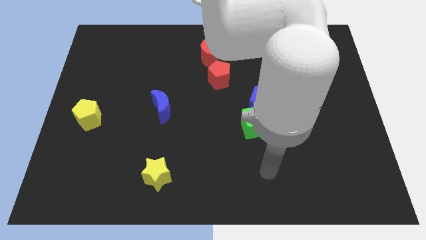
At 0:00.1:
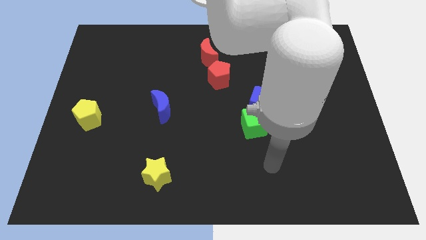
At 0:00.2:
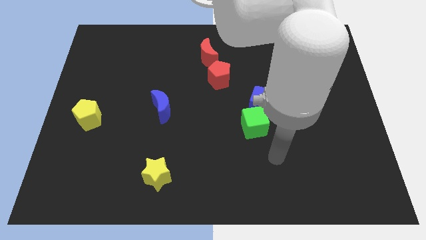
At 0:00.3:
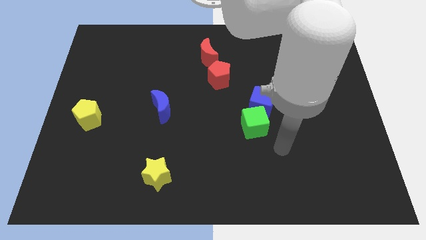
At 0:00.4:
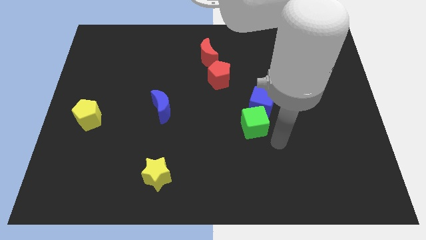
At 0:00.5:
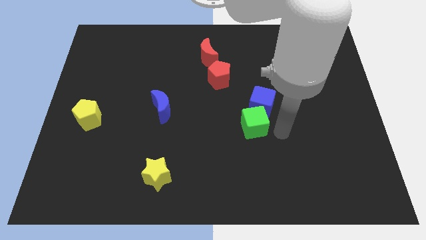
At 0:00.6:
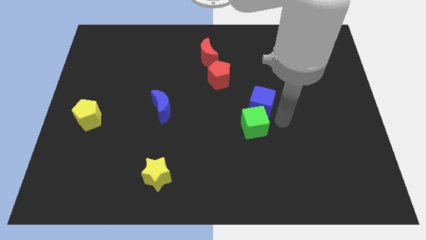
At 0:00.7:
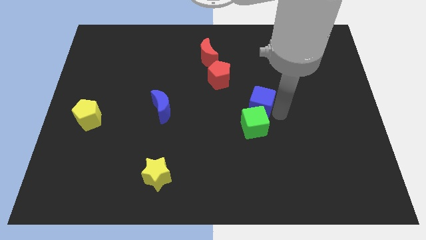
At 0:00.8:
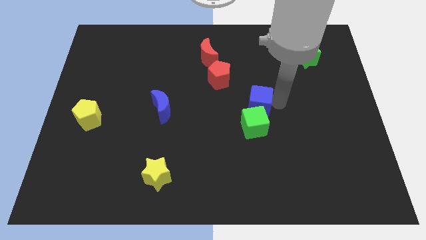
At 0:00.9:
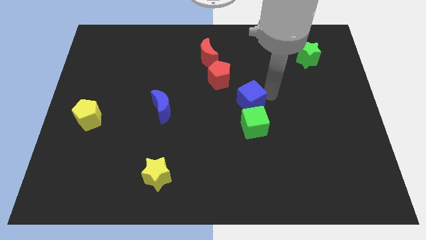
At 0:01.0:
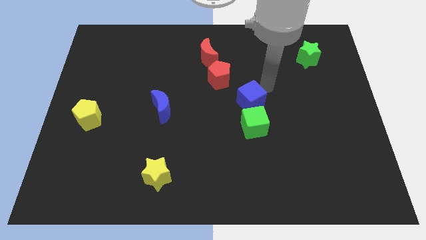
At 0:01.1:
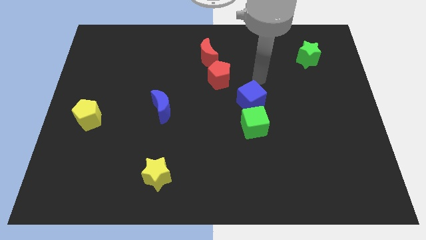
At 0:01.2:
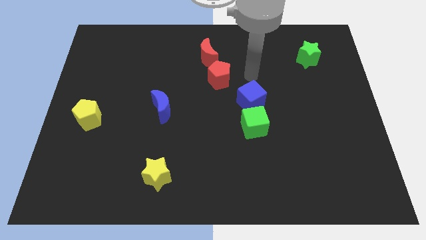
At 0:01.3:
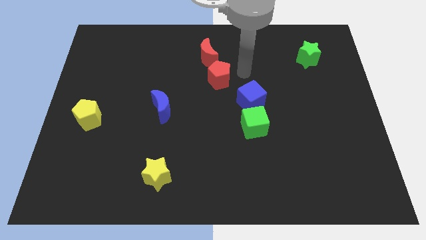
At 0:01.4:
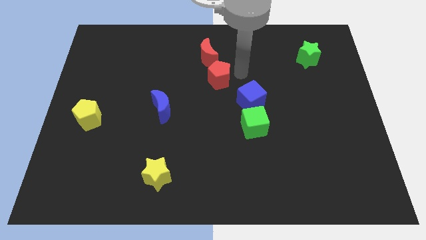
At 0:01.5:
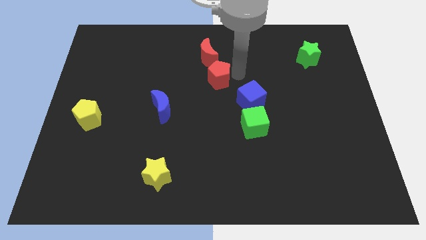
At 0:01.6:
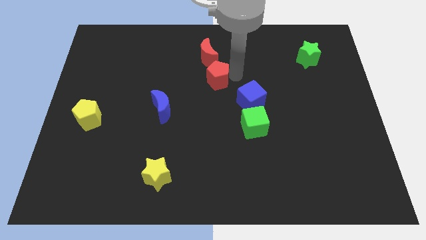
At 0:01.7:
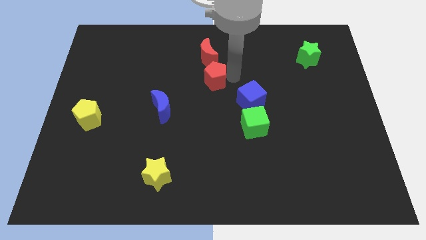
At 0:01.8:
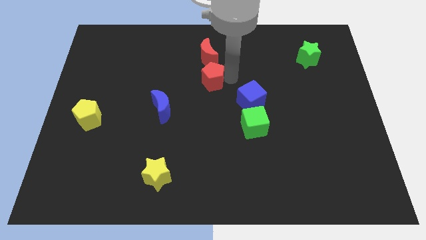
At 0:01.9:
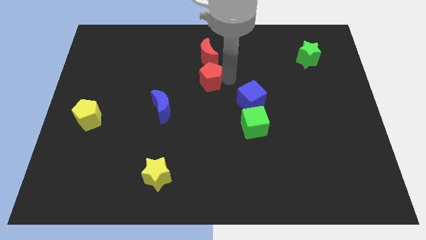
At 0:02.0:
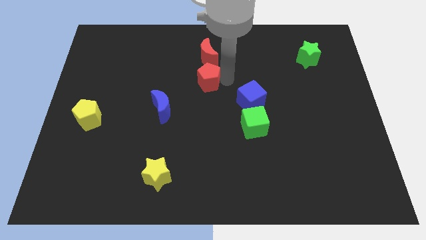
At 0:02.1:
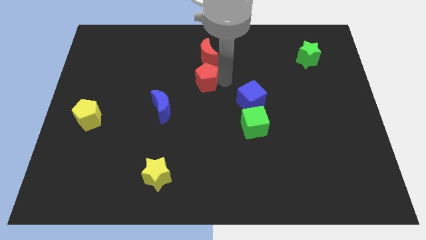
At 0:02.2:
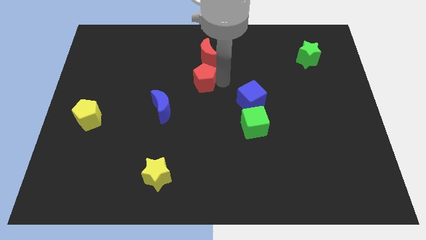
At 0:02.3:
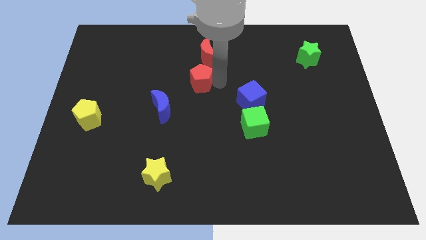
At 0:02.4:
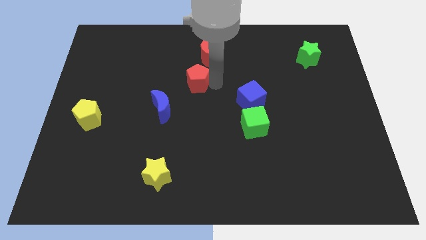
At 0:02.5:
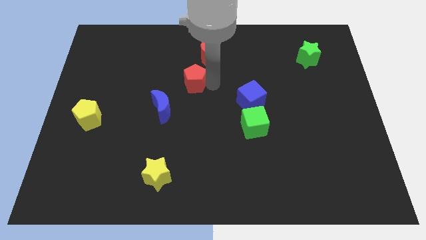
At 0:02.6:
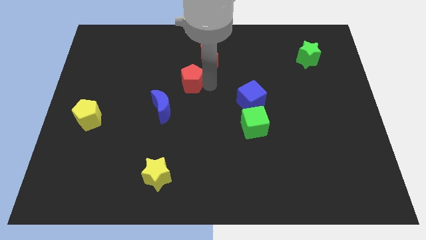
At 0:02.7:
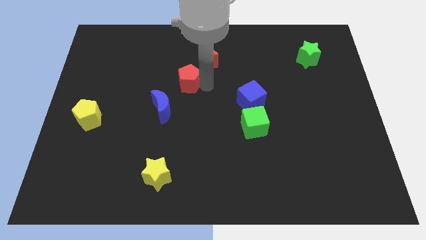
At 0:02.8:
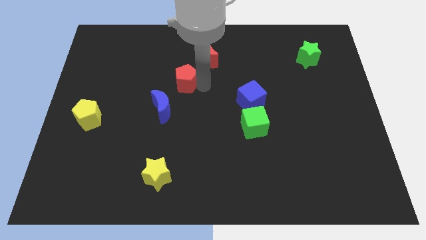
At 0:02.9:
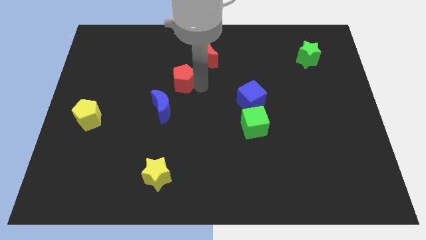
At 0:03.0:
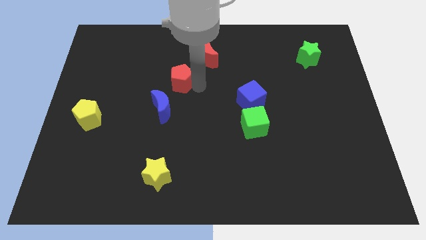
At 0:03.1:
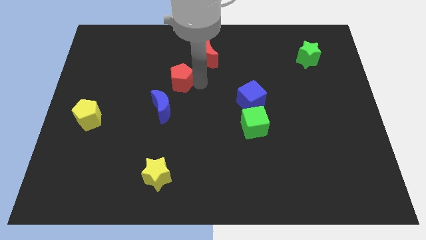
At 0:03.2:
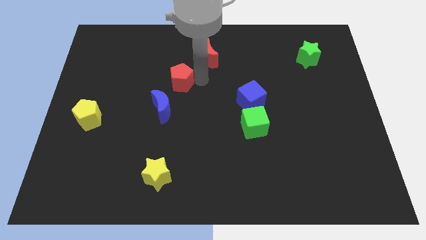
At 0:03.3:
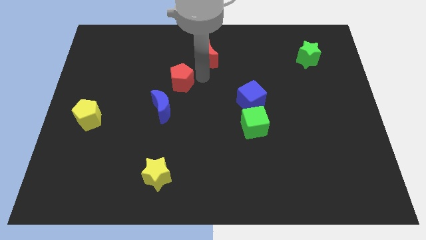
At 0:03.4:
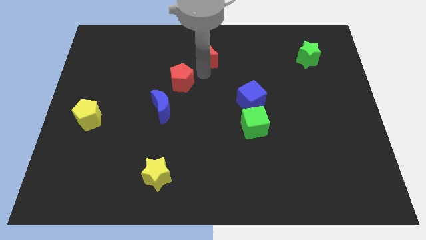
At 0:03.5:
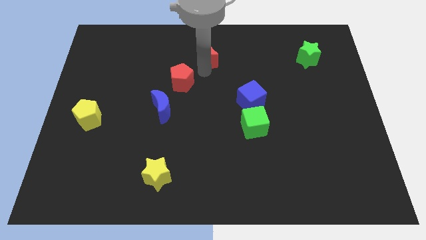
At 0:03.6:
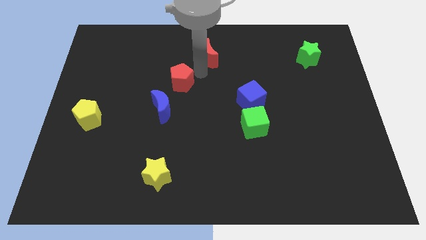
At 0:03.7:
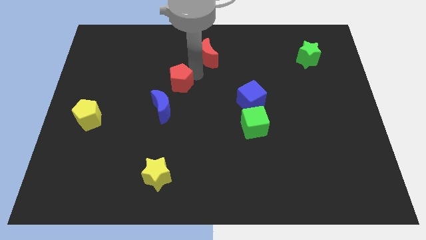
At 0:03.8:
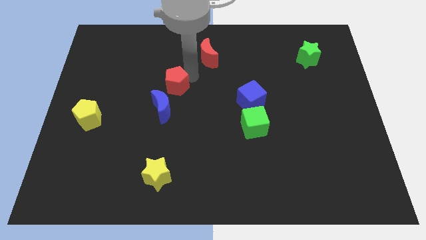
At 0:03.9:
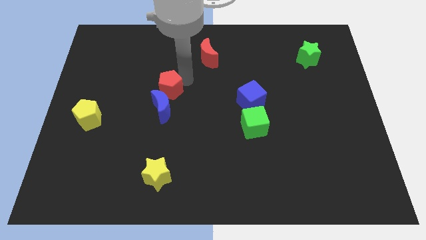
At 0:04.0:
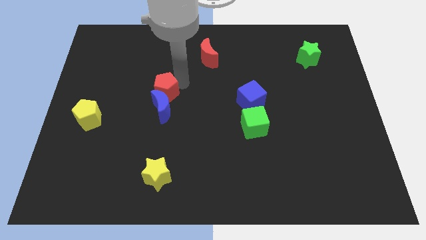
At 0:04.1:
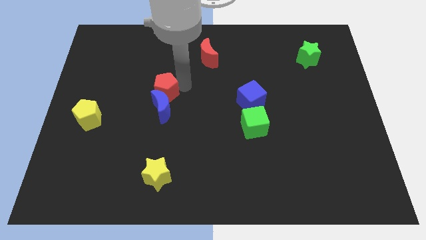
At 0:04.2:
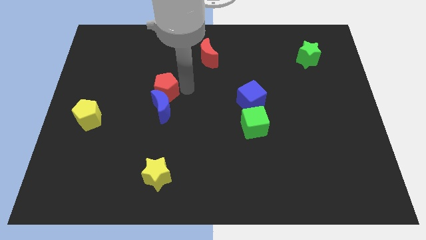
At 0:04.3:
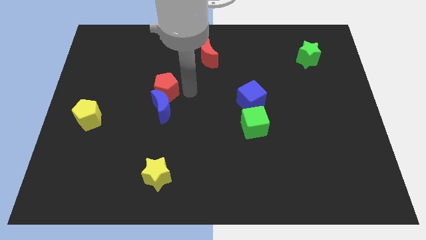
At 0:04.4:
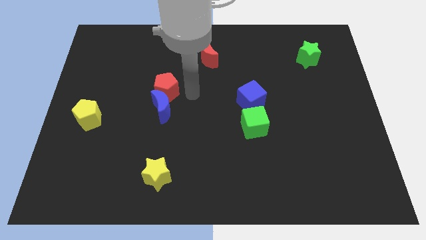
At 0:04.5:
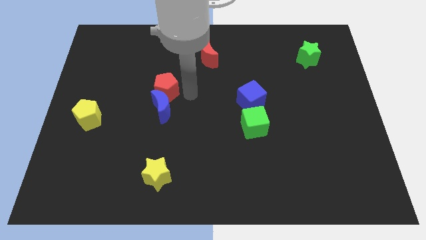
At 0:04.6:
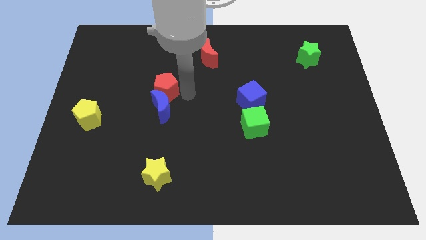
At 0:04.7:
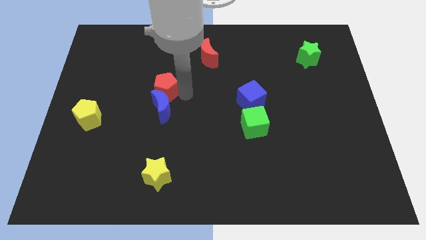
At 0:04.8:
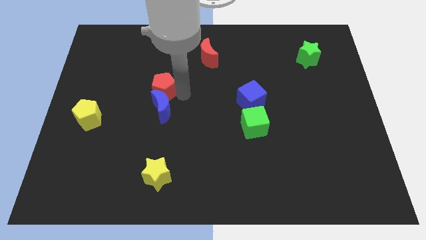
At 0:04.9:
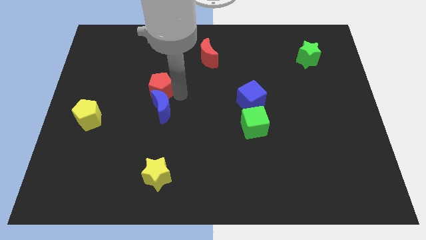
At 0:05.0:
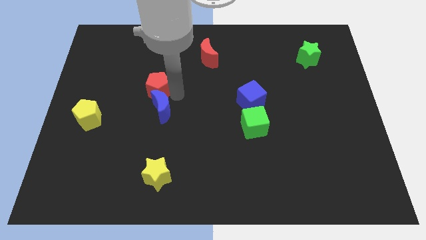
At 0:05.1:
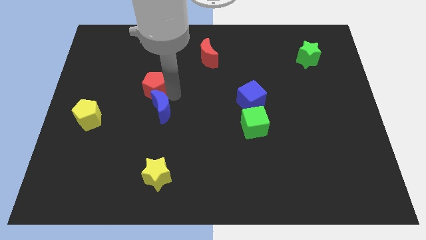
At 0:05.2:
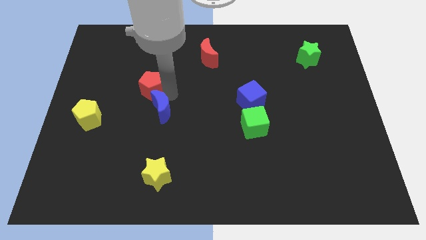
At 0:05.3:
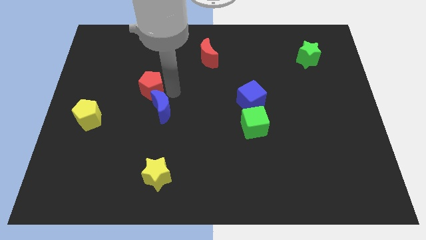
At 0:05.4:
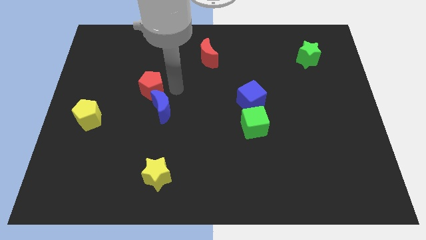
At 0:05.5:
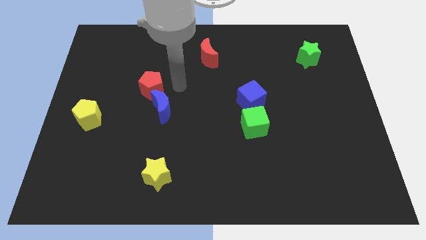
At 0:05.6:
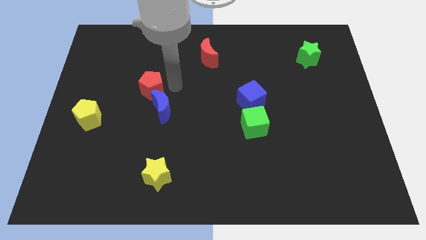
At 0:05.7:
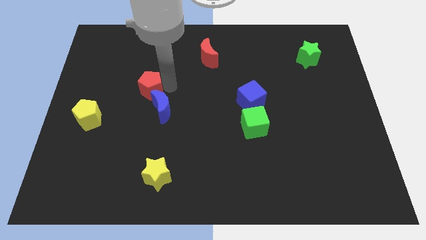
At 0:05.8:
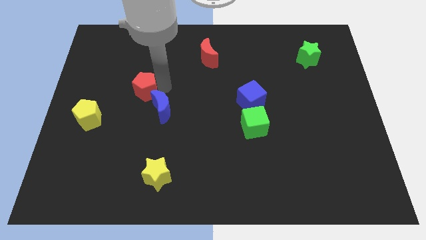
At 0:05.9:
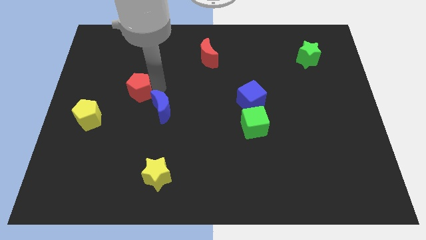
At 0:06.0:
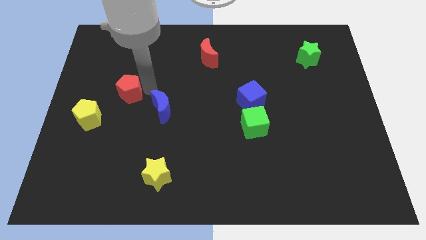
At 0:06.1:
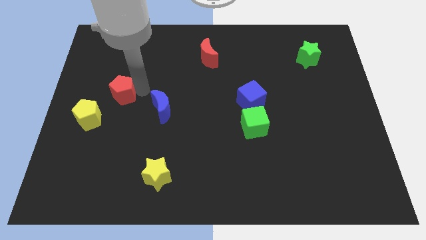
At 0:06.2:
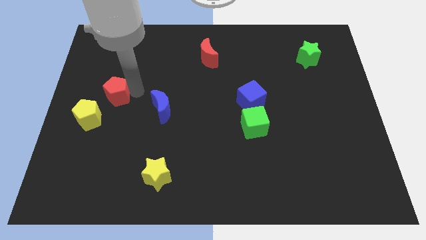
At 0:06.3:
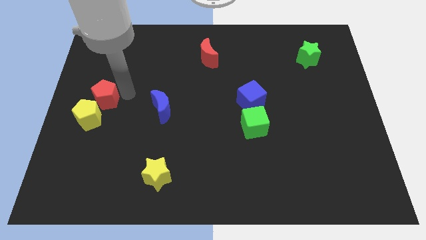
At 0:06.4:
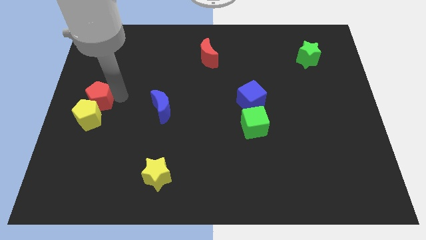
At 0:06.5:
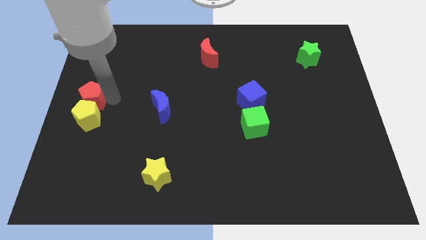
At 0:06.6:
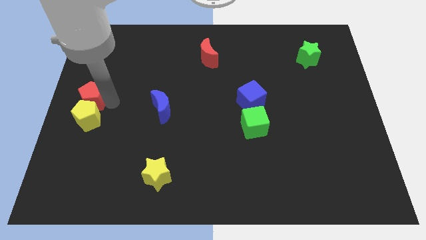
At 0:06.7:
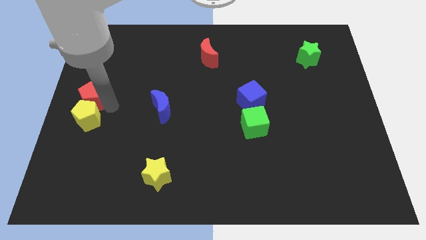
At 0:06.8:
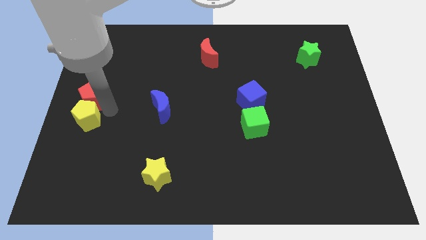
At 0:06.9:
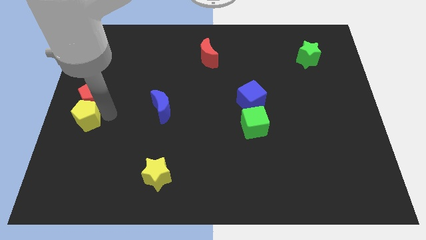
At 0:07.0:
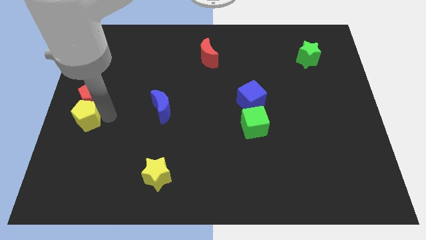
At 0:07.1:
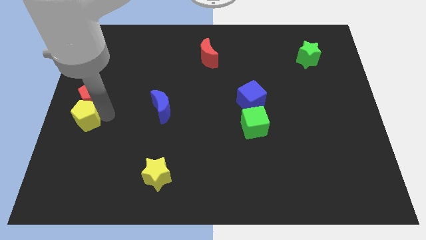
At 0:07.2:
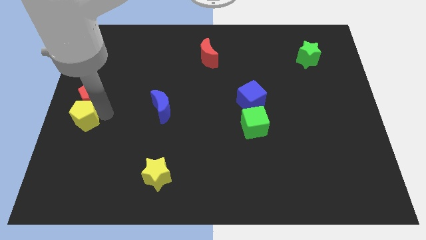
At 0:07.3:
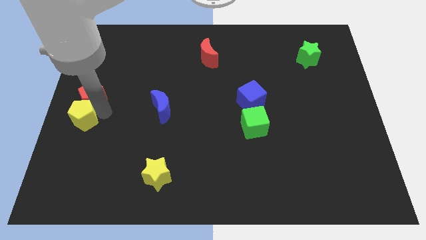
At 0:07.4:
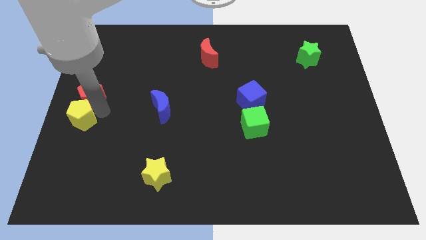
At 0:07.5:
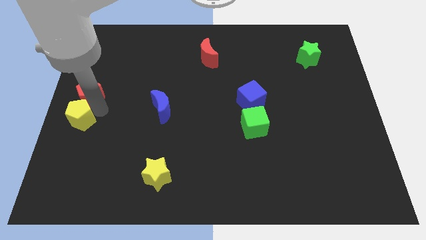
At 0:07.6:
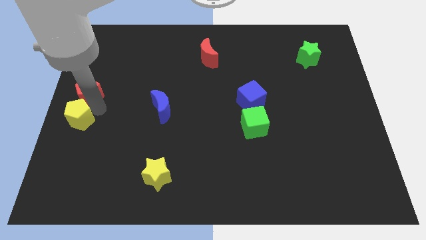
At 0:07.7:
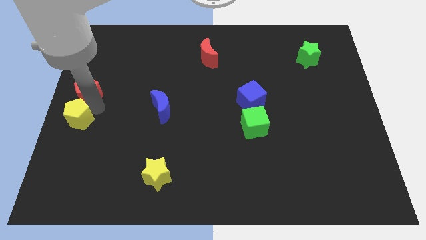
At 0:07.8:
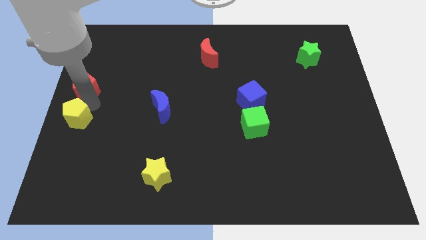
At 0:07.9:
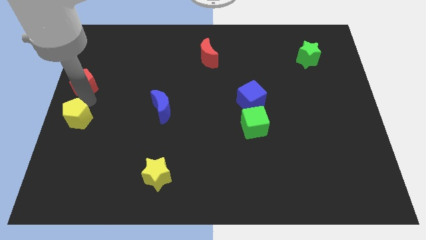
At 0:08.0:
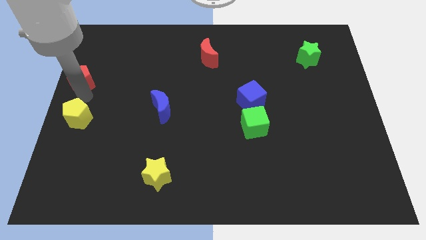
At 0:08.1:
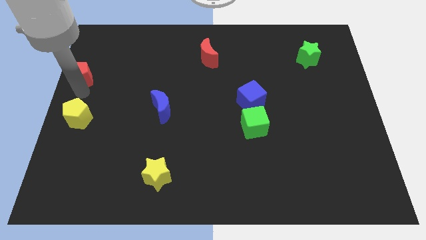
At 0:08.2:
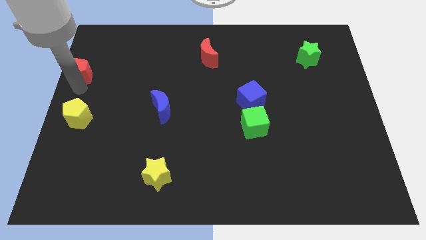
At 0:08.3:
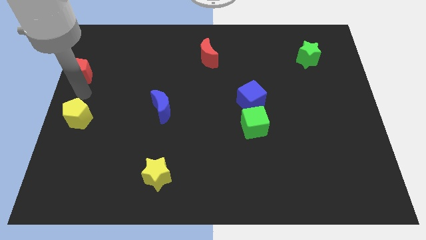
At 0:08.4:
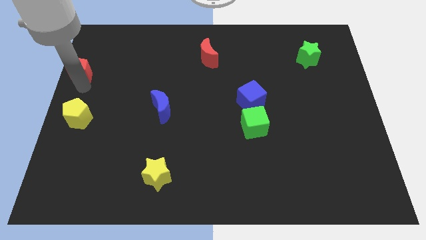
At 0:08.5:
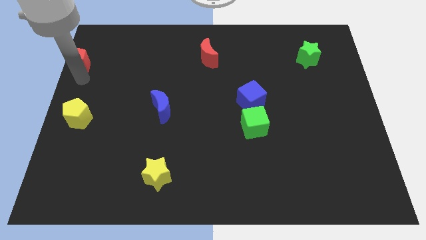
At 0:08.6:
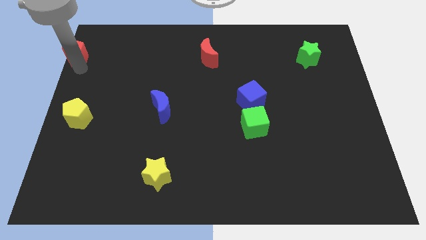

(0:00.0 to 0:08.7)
put the red pentagon to the top left
